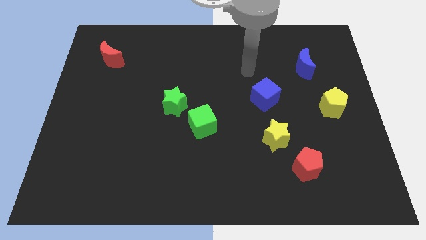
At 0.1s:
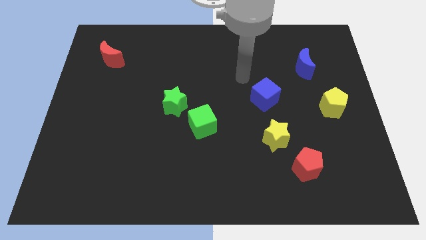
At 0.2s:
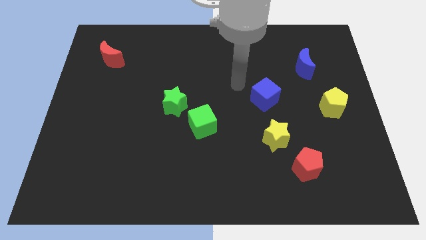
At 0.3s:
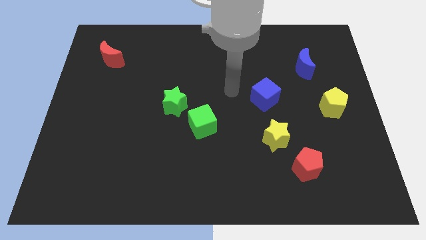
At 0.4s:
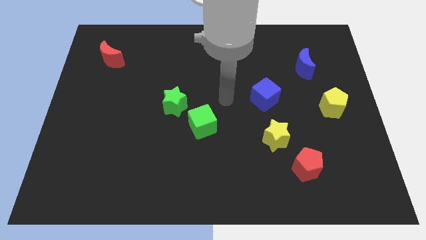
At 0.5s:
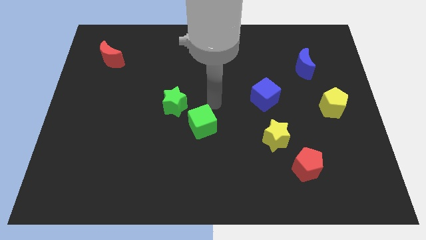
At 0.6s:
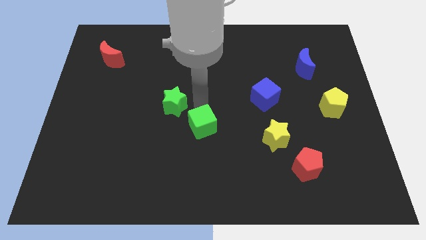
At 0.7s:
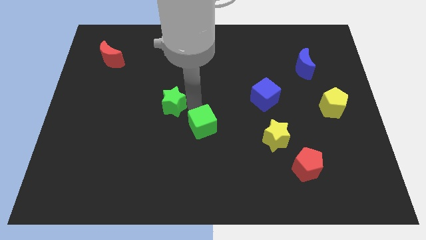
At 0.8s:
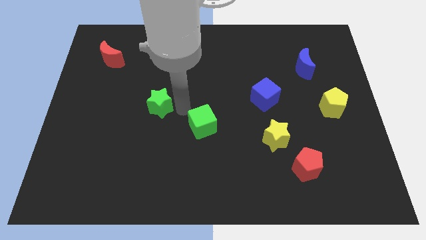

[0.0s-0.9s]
pull the green cube apart from the green star

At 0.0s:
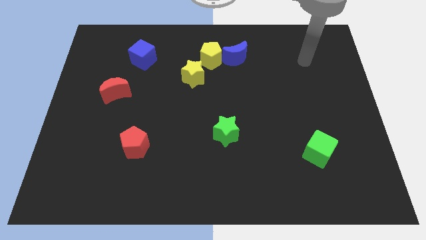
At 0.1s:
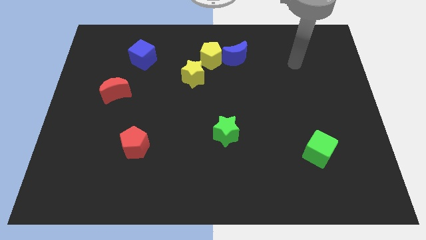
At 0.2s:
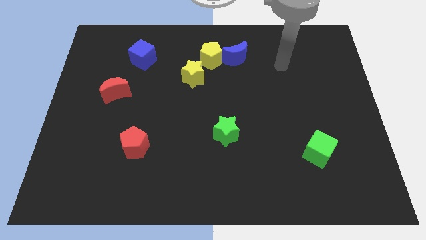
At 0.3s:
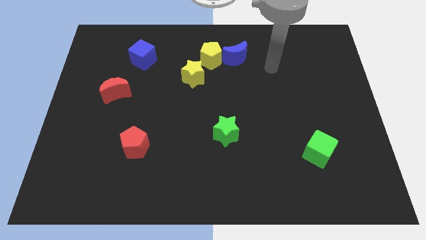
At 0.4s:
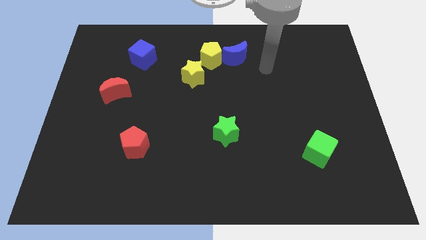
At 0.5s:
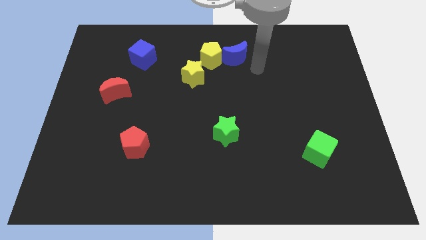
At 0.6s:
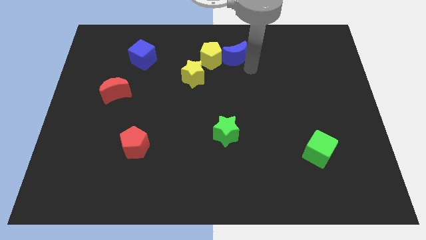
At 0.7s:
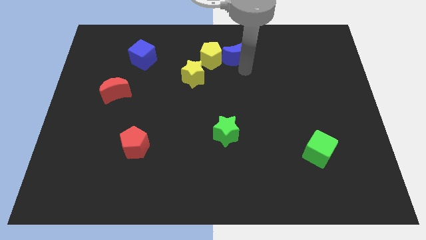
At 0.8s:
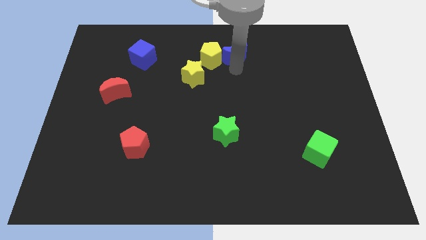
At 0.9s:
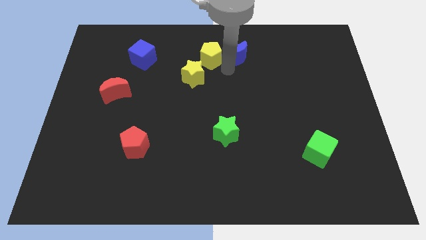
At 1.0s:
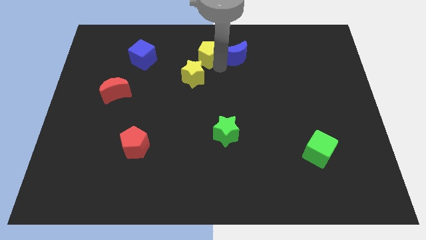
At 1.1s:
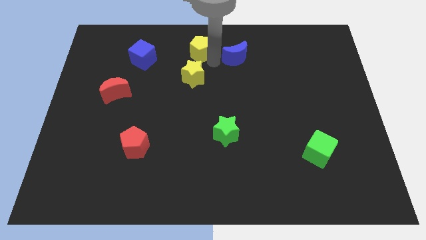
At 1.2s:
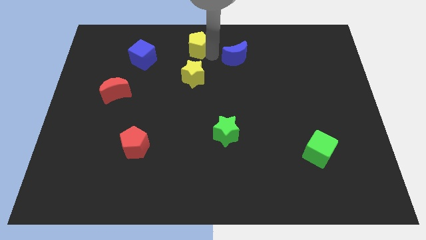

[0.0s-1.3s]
pull the blue moon apart from the yellow pentagon

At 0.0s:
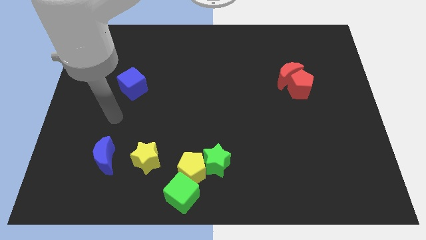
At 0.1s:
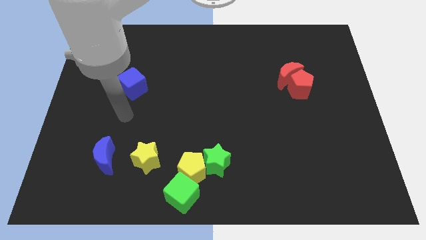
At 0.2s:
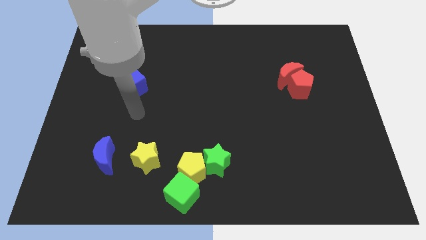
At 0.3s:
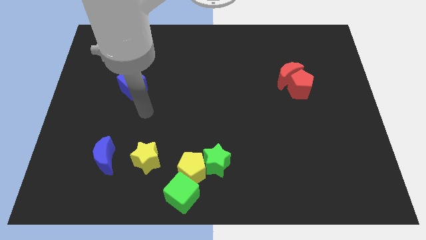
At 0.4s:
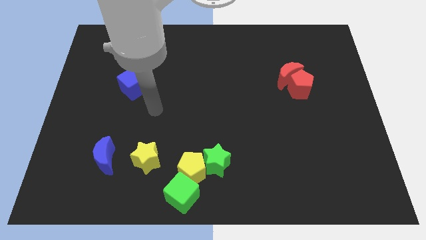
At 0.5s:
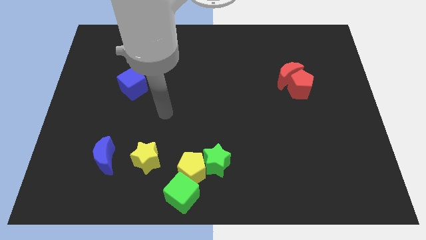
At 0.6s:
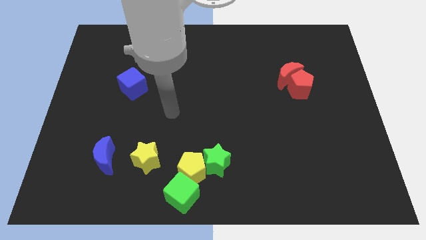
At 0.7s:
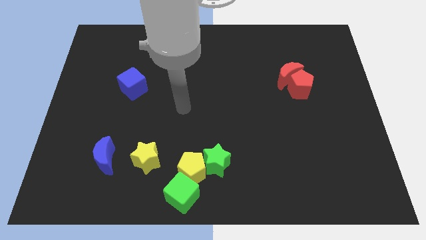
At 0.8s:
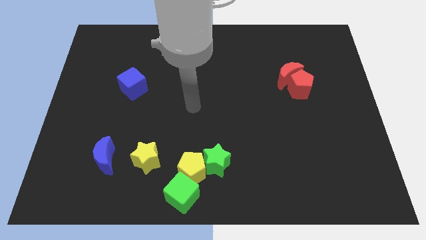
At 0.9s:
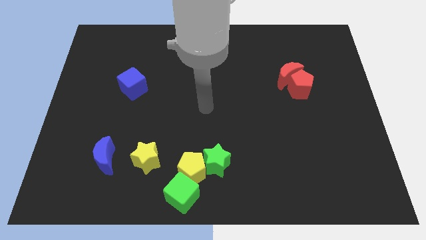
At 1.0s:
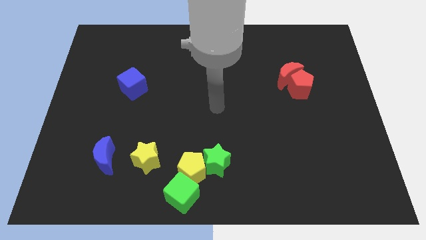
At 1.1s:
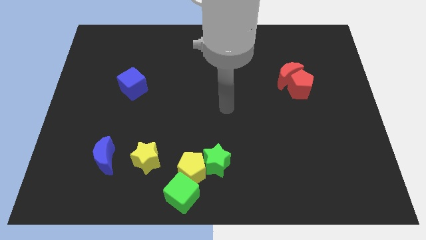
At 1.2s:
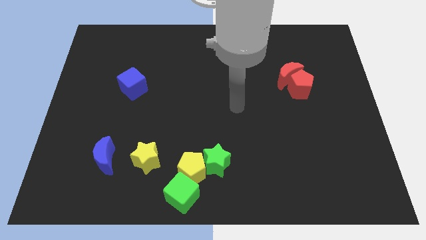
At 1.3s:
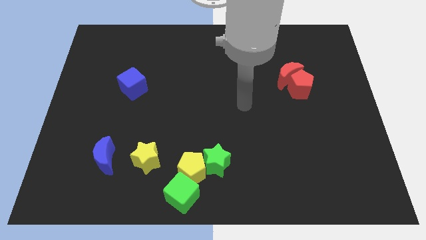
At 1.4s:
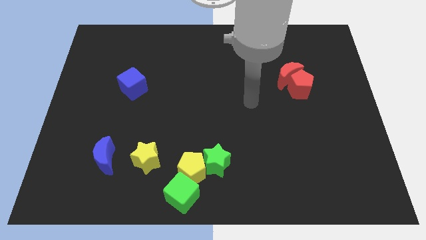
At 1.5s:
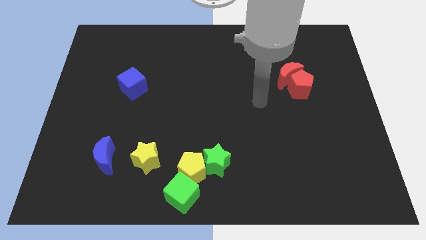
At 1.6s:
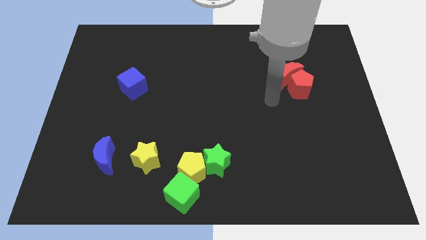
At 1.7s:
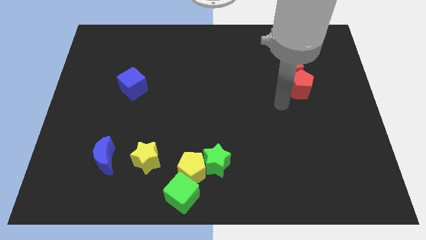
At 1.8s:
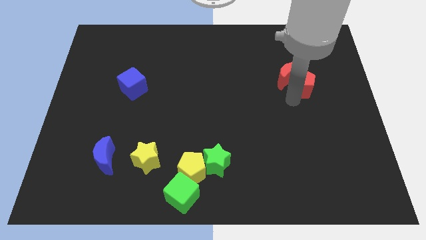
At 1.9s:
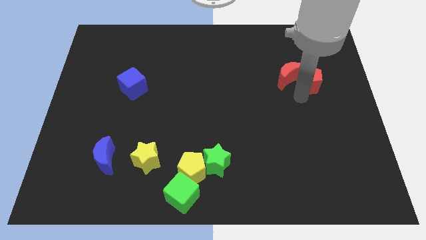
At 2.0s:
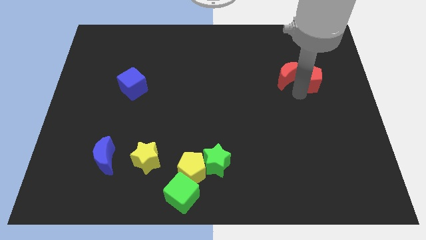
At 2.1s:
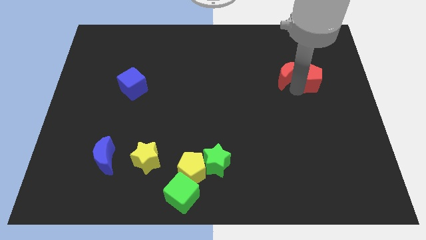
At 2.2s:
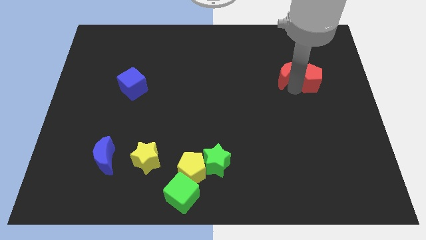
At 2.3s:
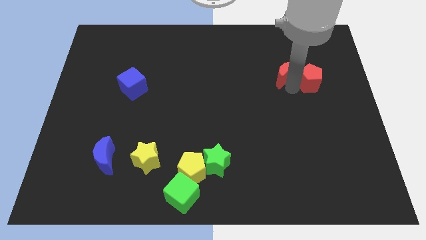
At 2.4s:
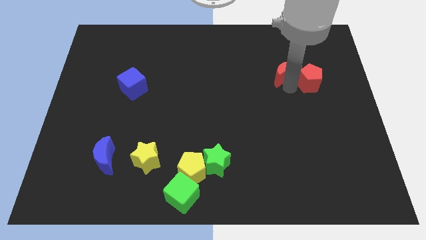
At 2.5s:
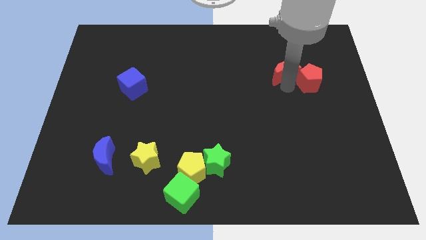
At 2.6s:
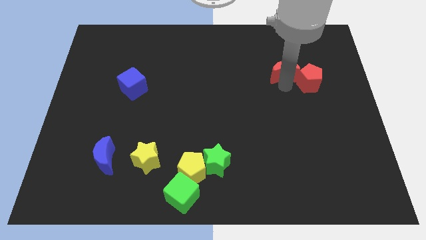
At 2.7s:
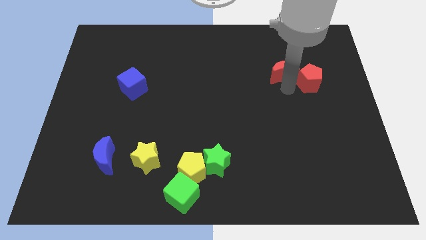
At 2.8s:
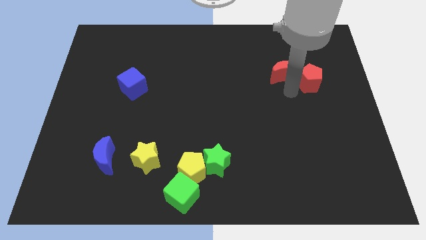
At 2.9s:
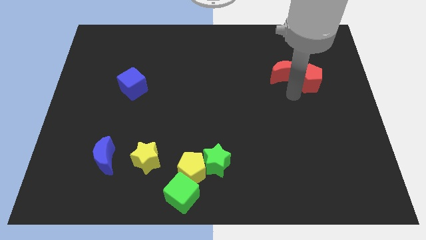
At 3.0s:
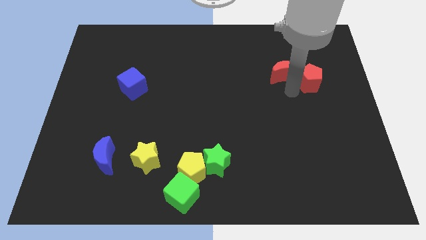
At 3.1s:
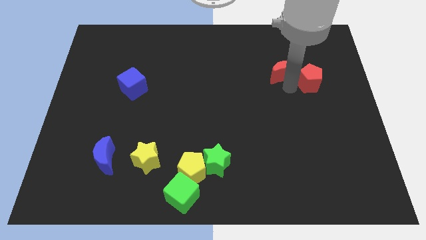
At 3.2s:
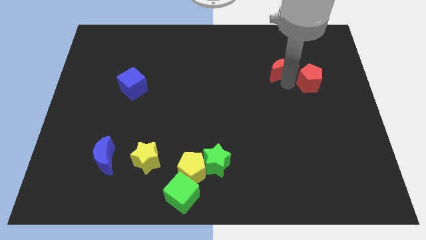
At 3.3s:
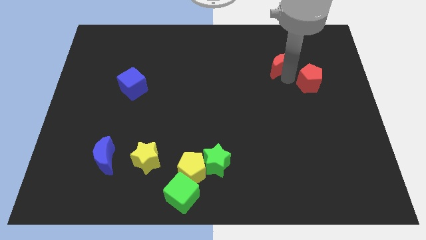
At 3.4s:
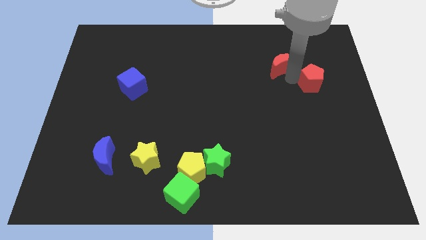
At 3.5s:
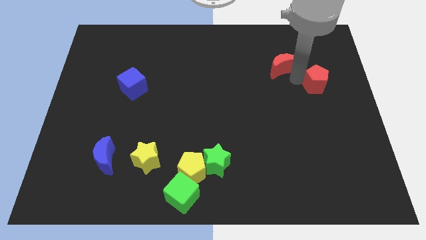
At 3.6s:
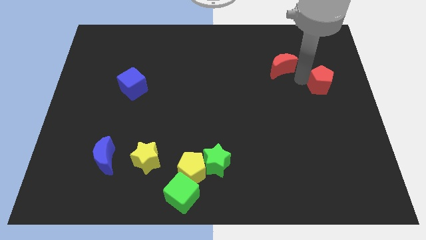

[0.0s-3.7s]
separate the red moon from the red pentagon

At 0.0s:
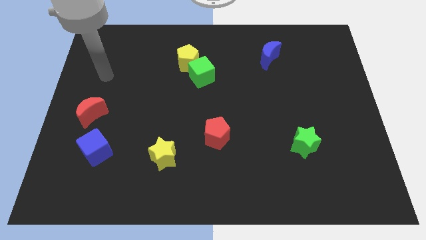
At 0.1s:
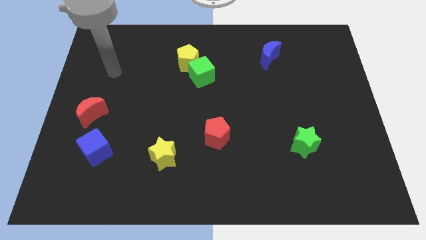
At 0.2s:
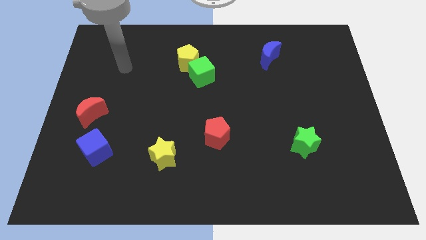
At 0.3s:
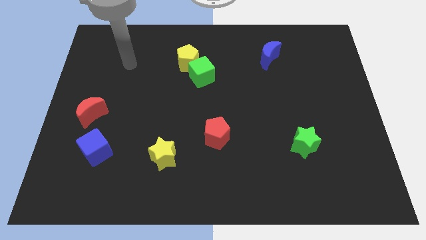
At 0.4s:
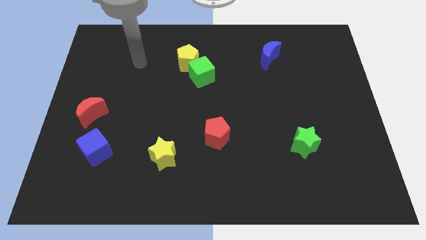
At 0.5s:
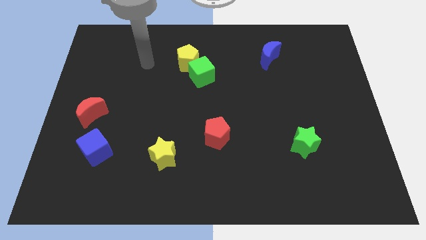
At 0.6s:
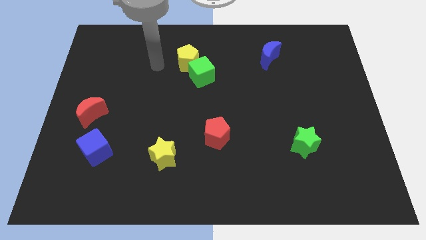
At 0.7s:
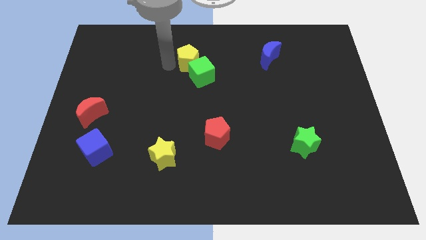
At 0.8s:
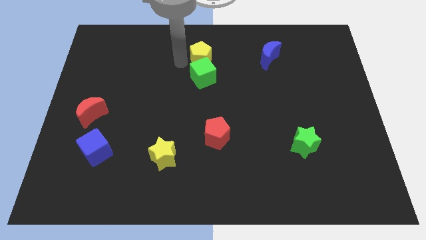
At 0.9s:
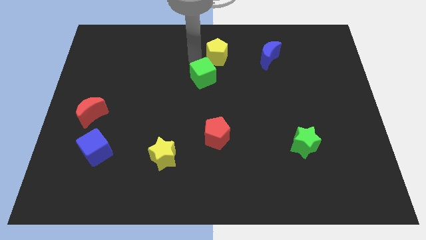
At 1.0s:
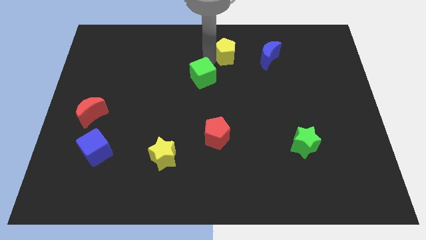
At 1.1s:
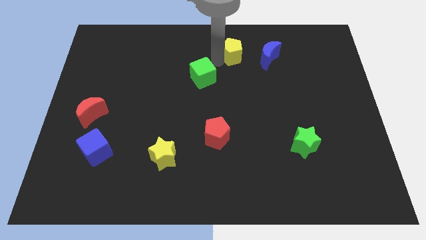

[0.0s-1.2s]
pull the green cube apart from the yellow pentagon

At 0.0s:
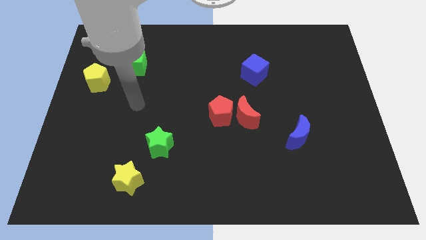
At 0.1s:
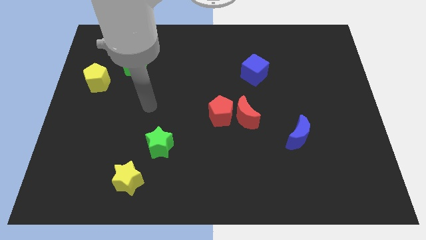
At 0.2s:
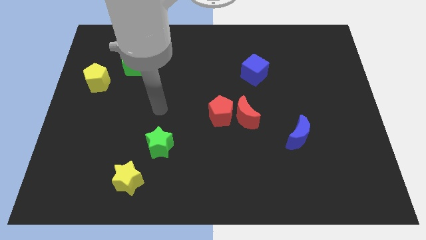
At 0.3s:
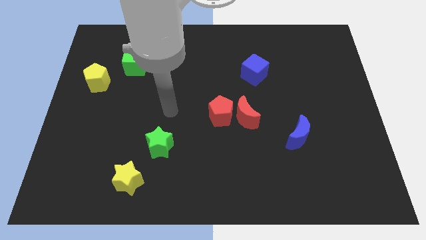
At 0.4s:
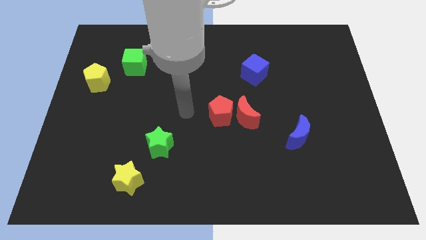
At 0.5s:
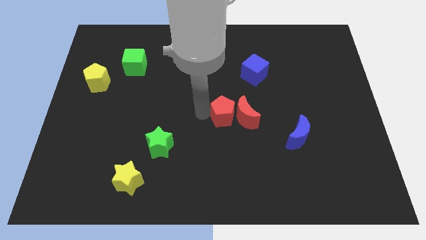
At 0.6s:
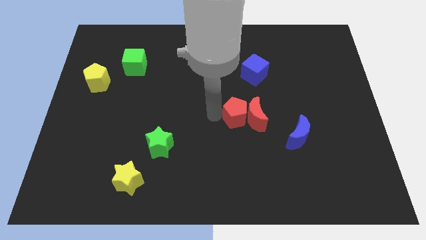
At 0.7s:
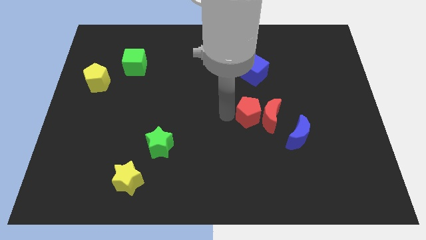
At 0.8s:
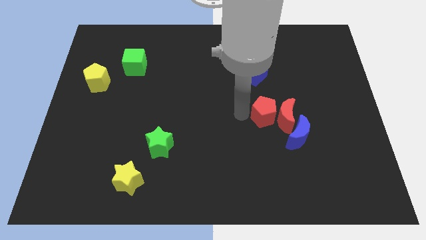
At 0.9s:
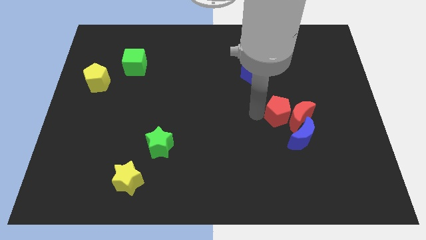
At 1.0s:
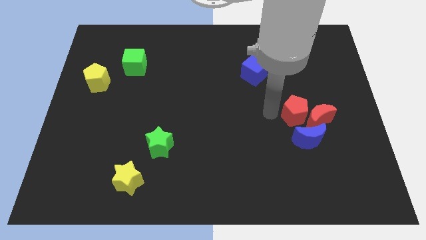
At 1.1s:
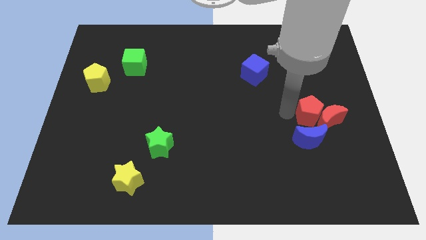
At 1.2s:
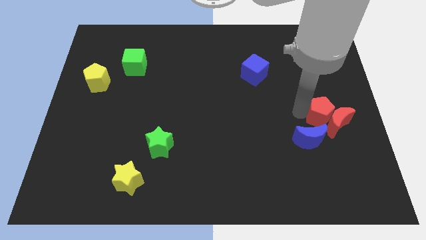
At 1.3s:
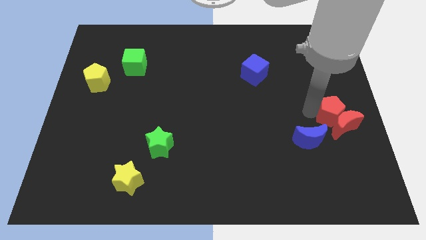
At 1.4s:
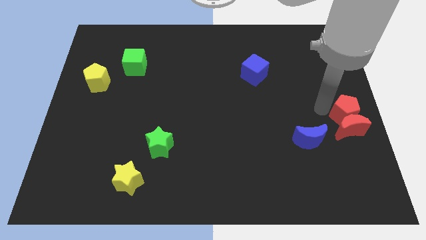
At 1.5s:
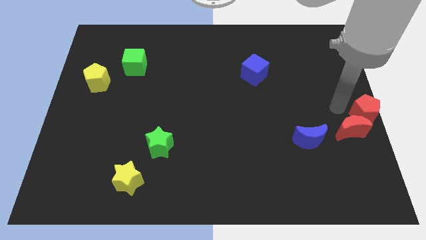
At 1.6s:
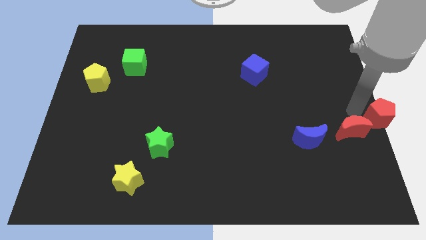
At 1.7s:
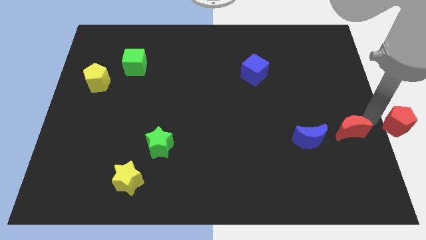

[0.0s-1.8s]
pull the red moon apart from the red pentagon

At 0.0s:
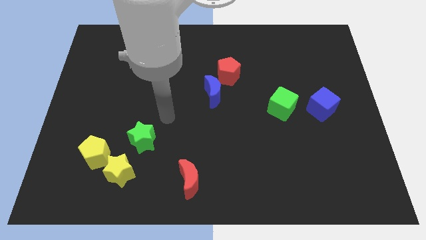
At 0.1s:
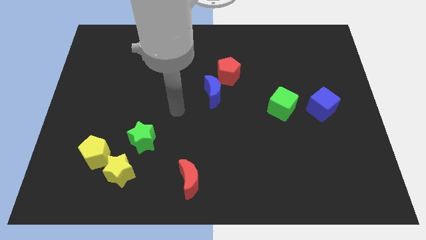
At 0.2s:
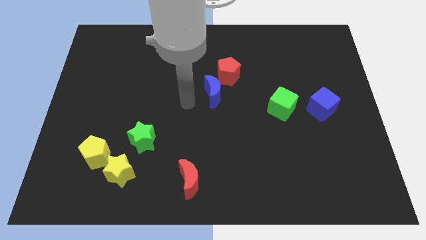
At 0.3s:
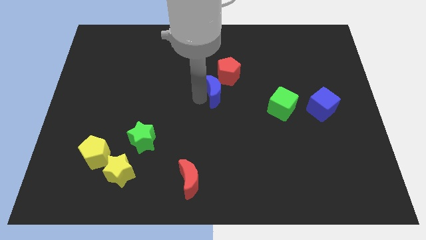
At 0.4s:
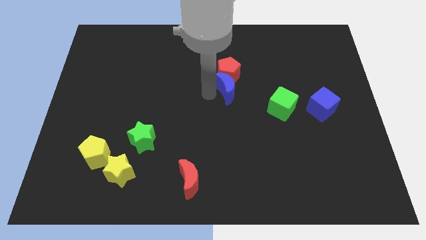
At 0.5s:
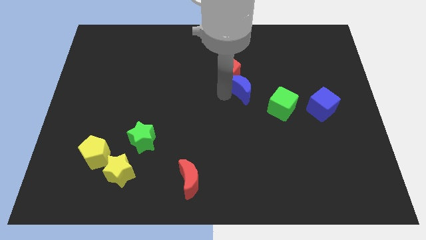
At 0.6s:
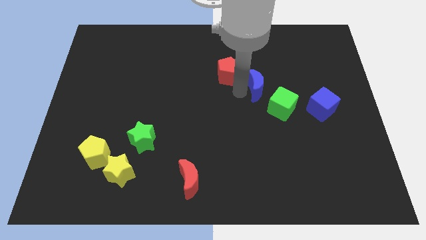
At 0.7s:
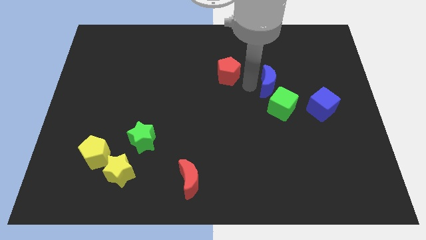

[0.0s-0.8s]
separate the red pentagon from the blue moon
